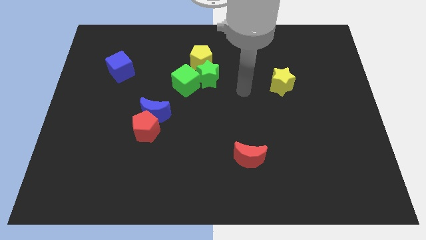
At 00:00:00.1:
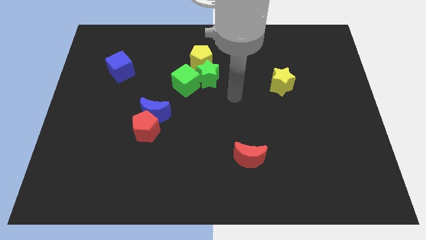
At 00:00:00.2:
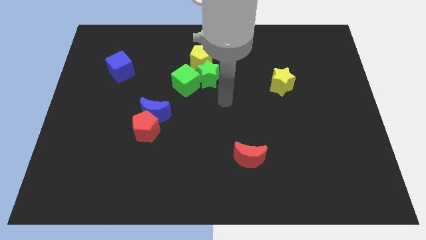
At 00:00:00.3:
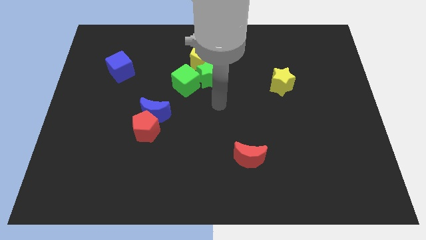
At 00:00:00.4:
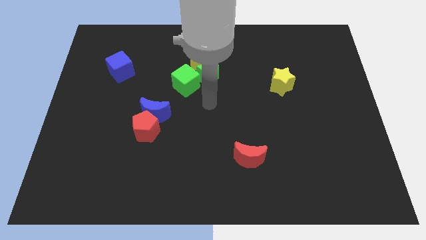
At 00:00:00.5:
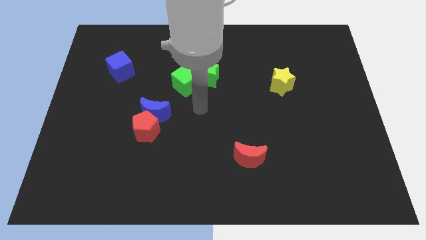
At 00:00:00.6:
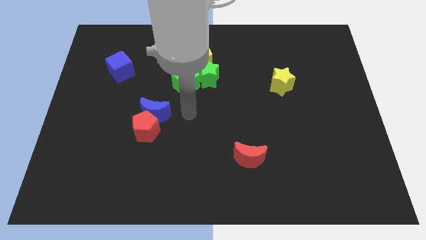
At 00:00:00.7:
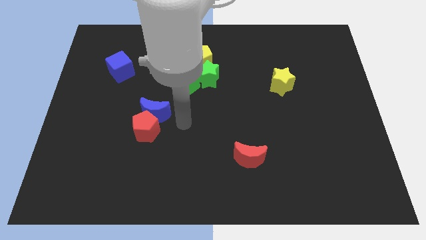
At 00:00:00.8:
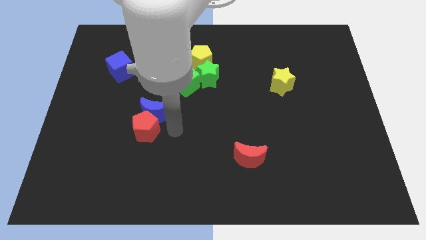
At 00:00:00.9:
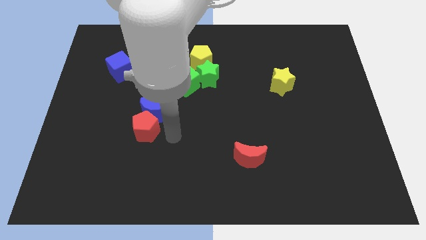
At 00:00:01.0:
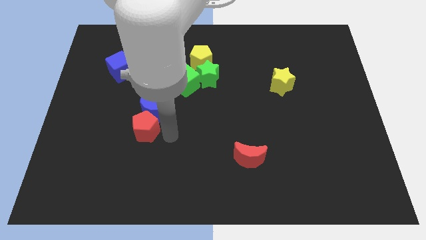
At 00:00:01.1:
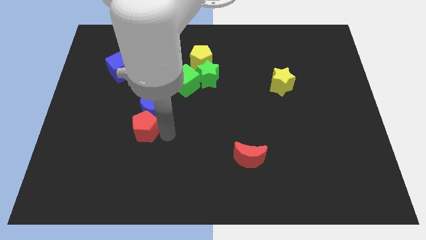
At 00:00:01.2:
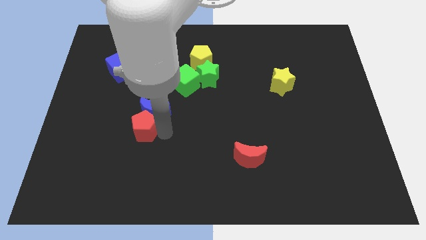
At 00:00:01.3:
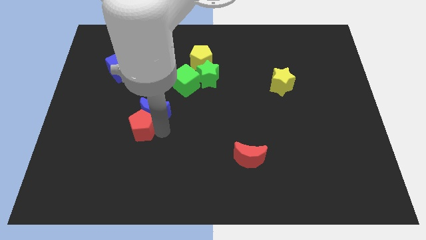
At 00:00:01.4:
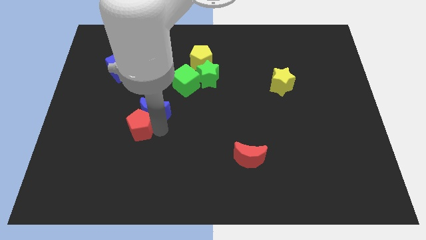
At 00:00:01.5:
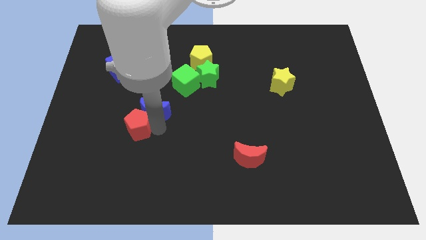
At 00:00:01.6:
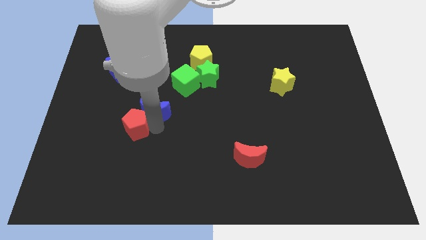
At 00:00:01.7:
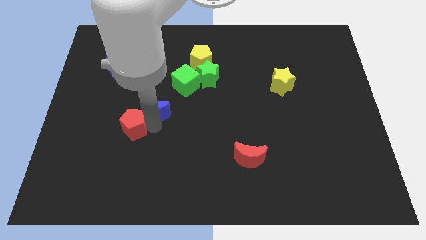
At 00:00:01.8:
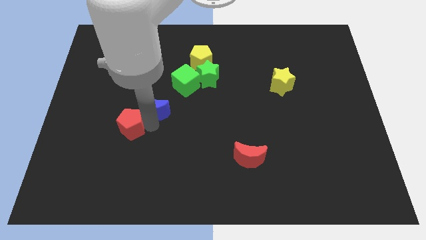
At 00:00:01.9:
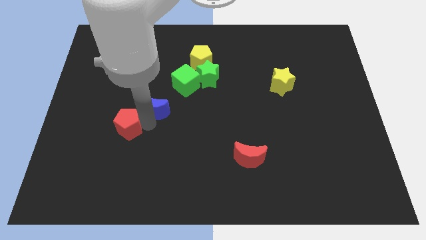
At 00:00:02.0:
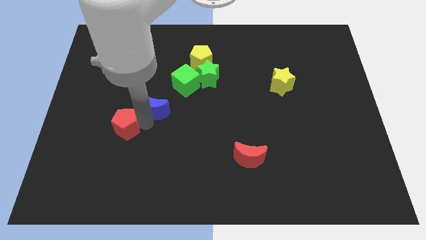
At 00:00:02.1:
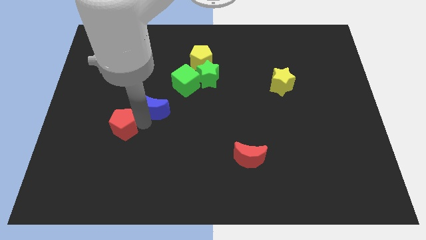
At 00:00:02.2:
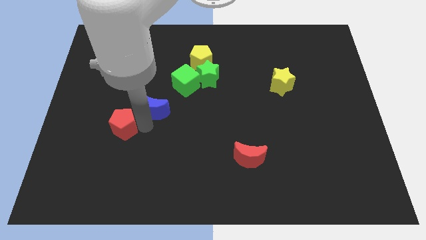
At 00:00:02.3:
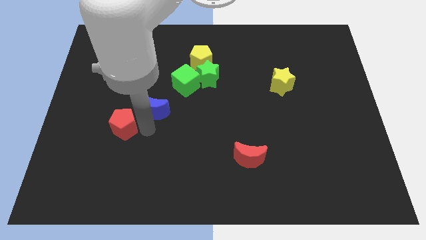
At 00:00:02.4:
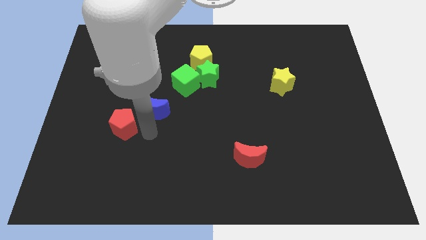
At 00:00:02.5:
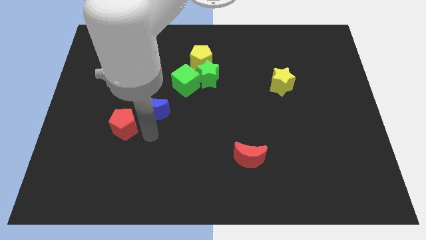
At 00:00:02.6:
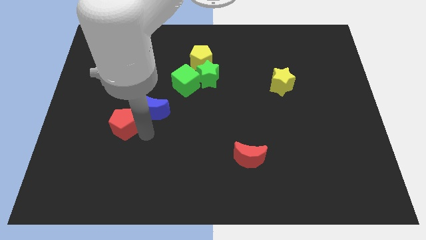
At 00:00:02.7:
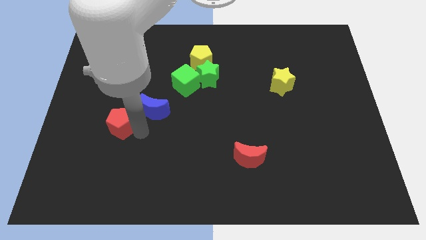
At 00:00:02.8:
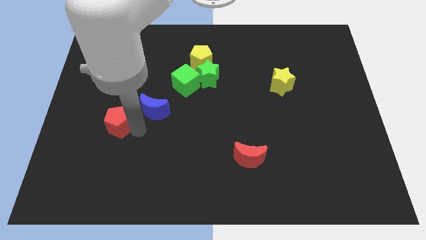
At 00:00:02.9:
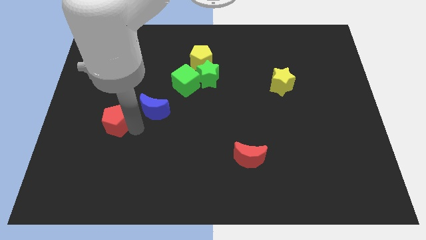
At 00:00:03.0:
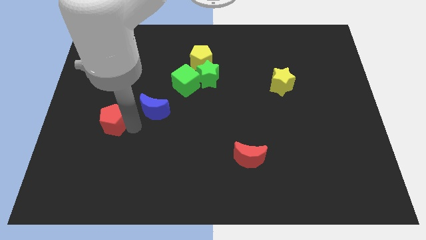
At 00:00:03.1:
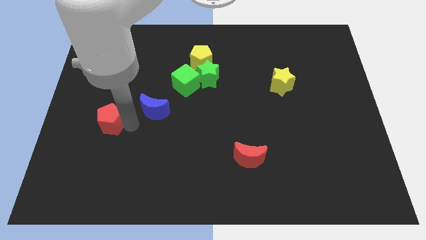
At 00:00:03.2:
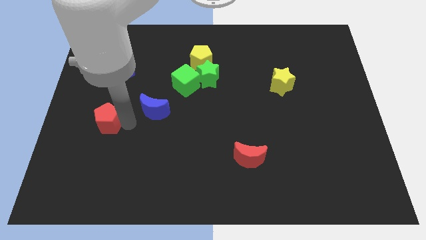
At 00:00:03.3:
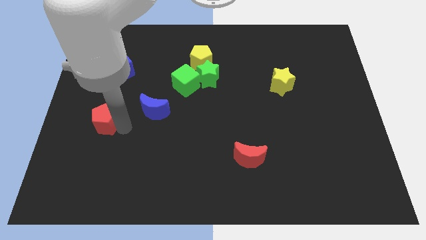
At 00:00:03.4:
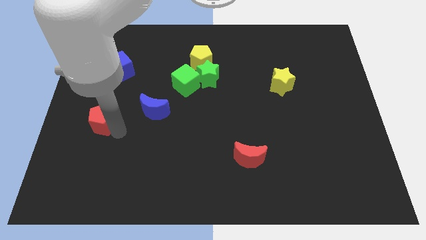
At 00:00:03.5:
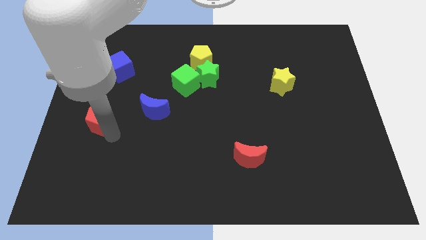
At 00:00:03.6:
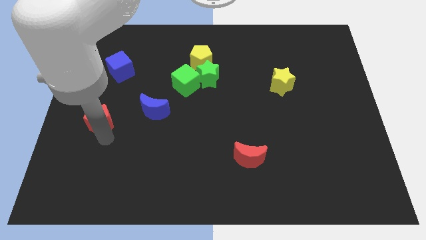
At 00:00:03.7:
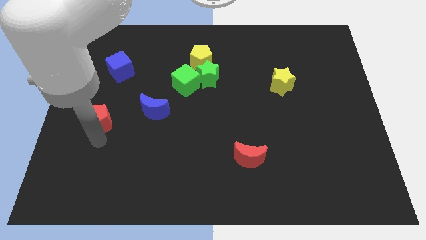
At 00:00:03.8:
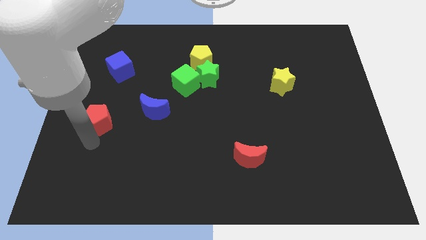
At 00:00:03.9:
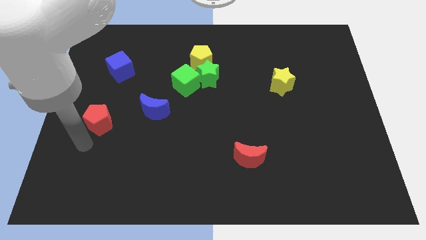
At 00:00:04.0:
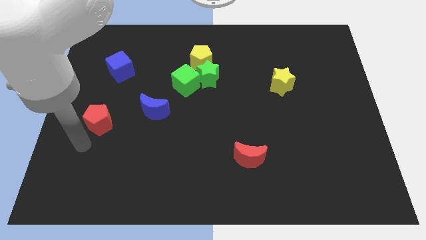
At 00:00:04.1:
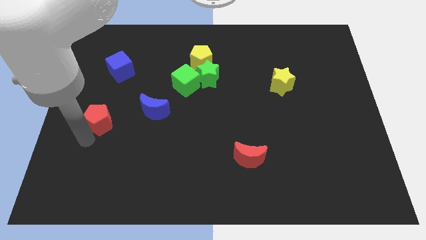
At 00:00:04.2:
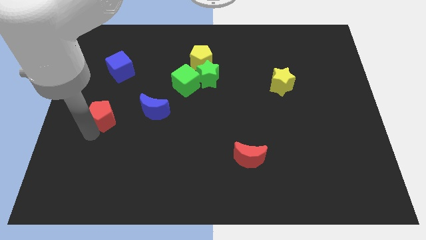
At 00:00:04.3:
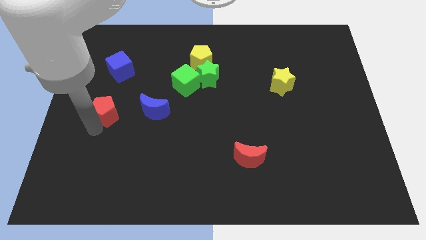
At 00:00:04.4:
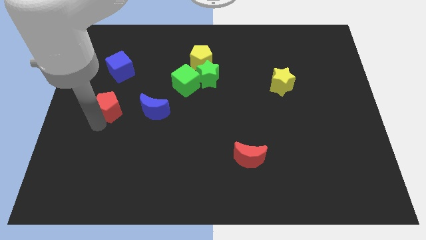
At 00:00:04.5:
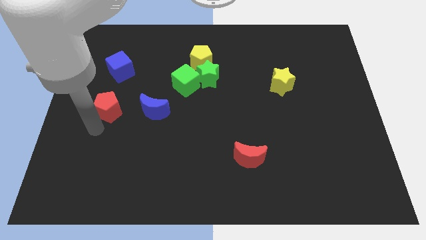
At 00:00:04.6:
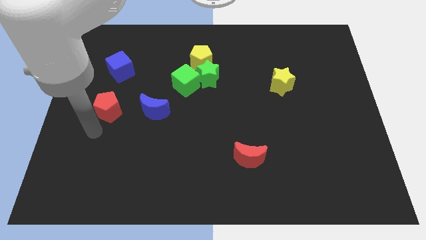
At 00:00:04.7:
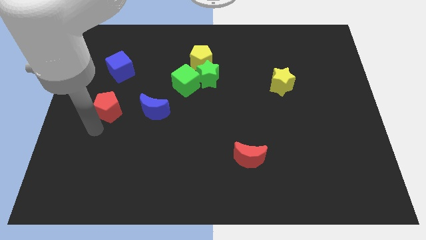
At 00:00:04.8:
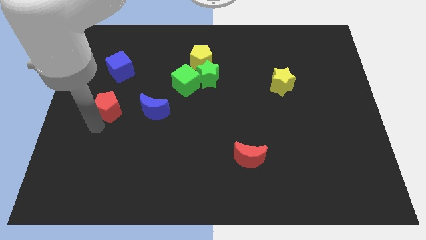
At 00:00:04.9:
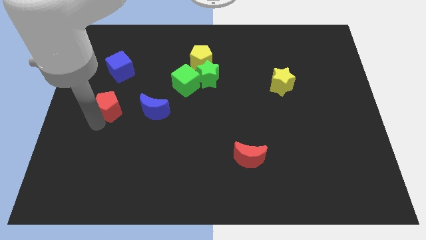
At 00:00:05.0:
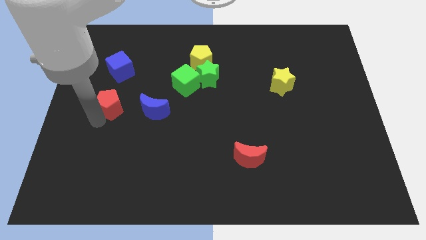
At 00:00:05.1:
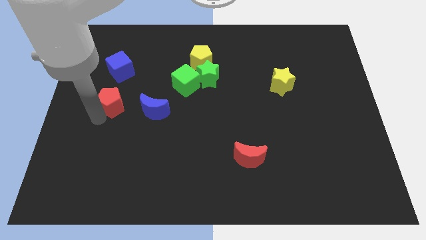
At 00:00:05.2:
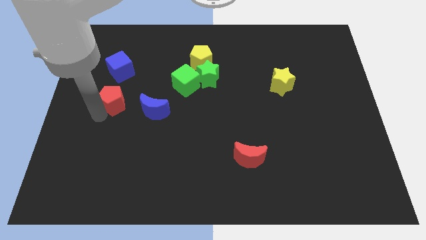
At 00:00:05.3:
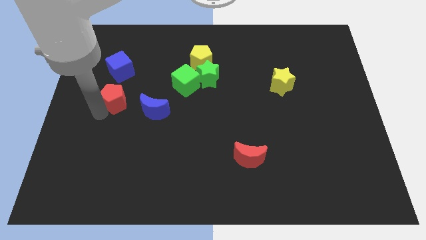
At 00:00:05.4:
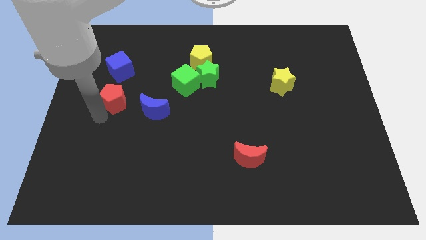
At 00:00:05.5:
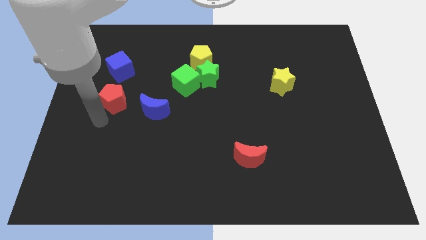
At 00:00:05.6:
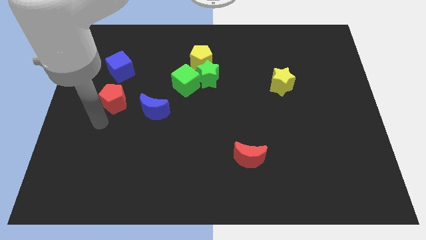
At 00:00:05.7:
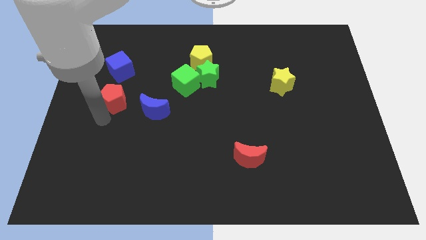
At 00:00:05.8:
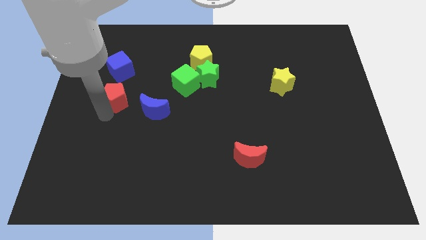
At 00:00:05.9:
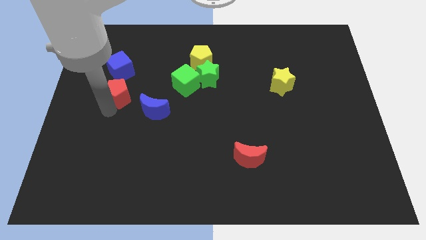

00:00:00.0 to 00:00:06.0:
slightly push the red pentagon up

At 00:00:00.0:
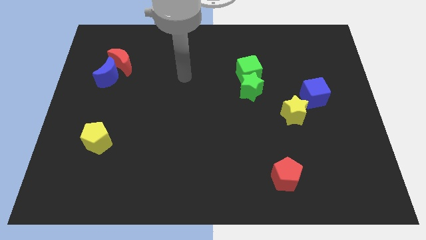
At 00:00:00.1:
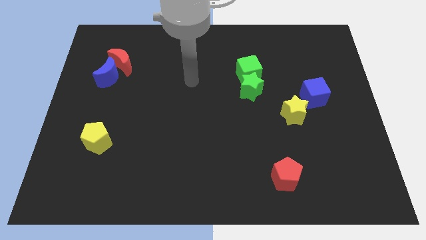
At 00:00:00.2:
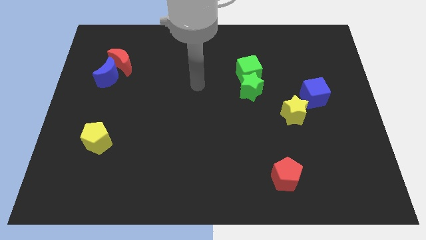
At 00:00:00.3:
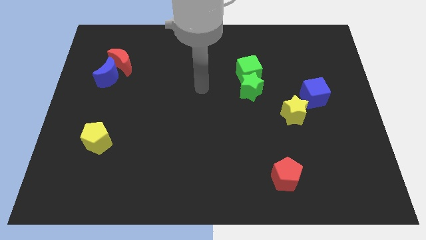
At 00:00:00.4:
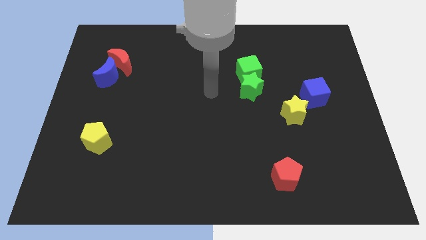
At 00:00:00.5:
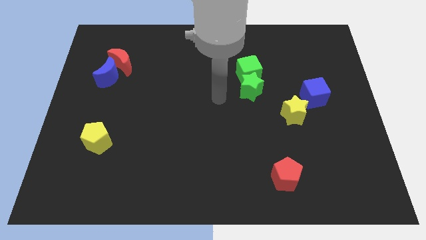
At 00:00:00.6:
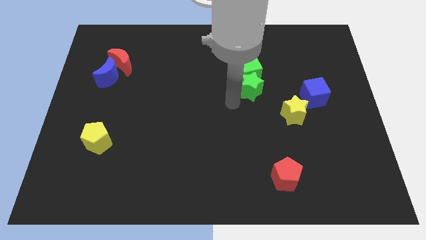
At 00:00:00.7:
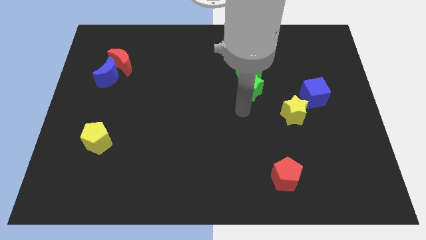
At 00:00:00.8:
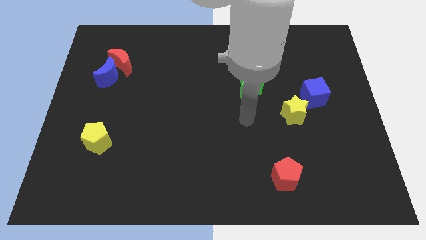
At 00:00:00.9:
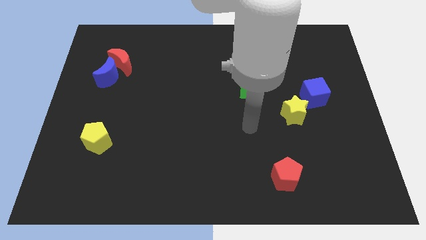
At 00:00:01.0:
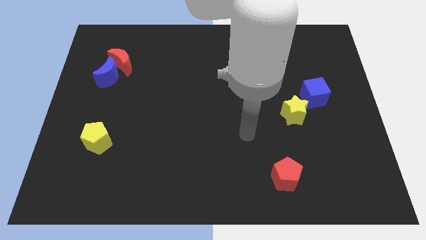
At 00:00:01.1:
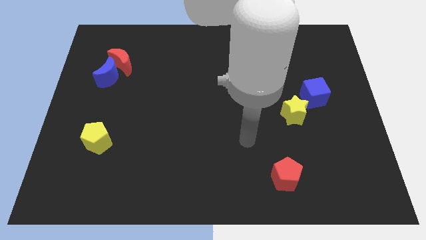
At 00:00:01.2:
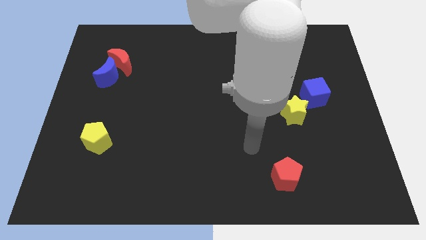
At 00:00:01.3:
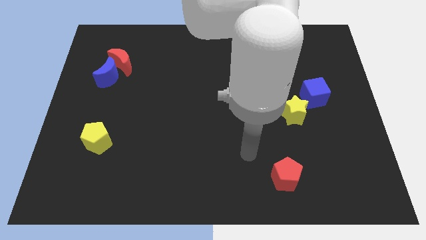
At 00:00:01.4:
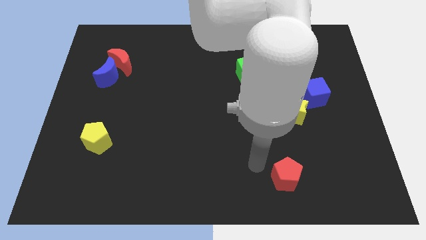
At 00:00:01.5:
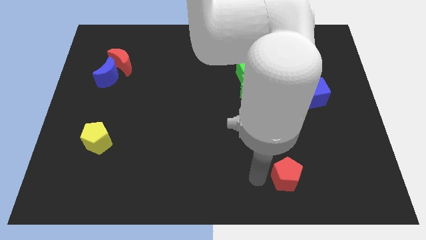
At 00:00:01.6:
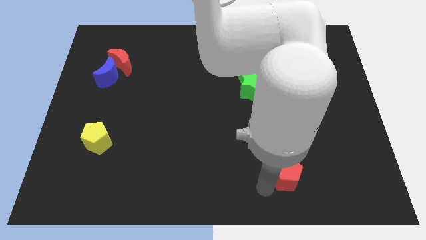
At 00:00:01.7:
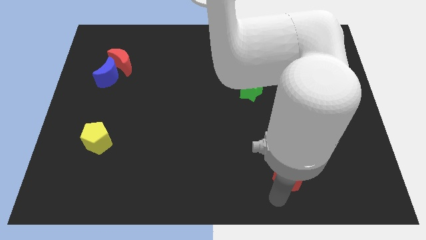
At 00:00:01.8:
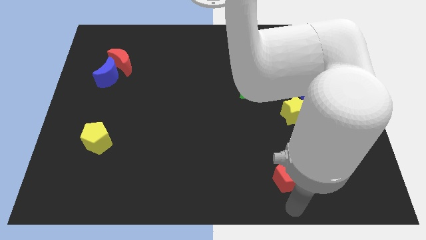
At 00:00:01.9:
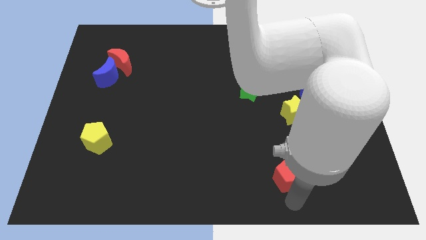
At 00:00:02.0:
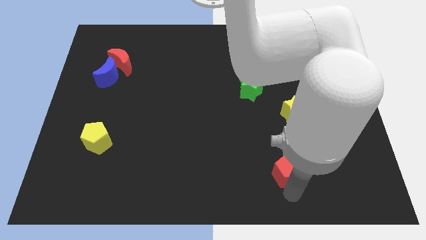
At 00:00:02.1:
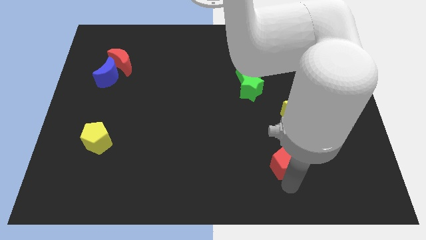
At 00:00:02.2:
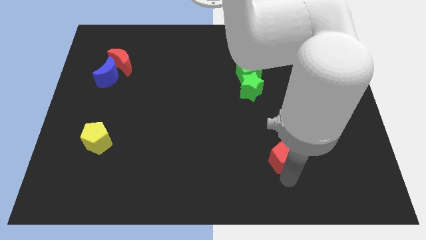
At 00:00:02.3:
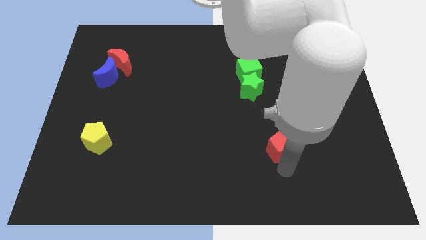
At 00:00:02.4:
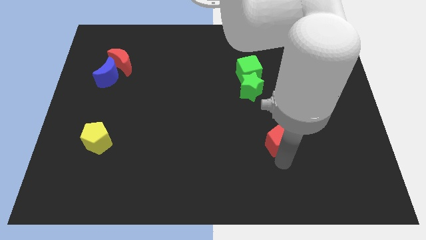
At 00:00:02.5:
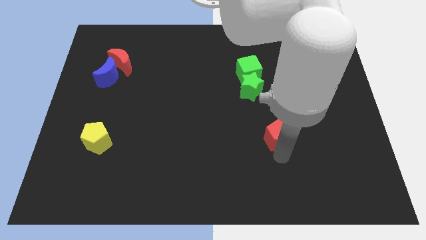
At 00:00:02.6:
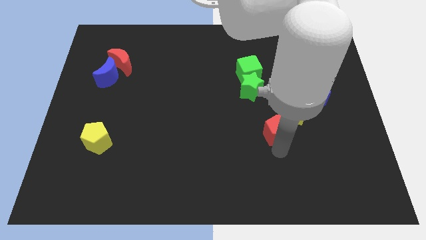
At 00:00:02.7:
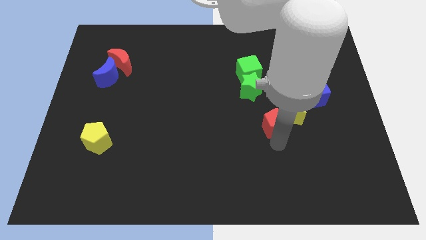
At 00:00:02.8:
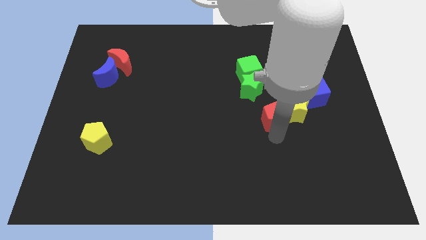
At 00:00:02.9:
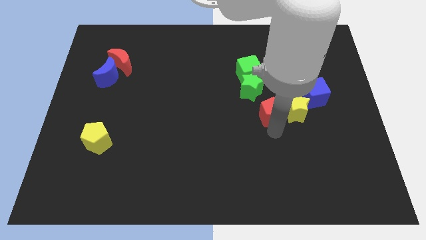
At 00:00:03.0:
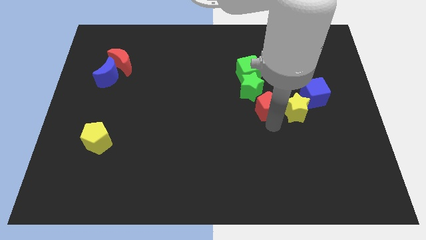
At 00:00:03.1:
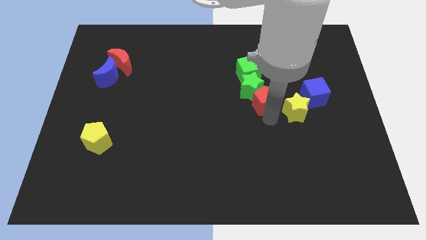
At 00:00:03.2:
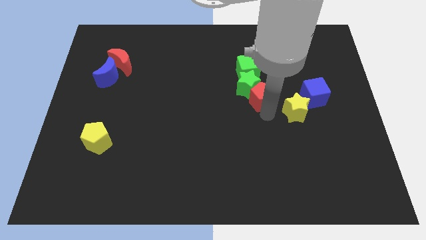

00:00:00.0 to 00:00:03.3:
push the red pentagon up
